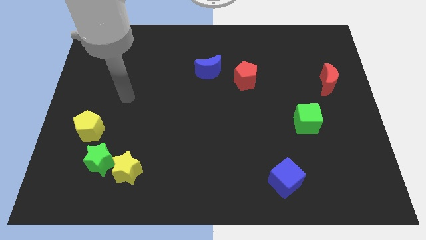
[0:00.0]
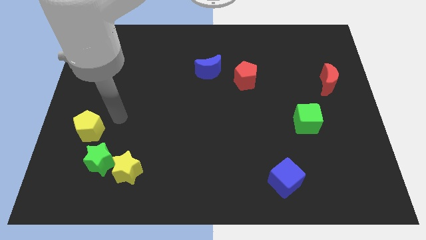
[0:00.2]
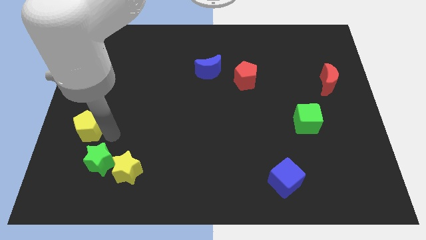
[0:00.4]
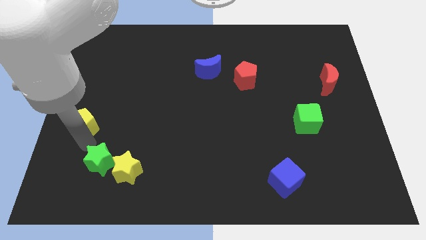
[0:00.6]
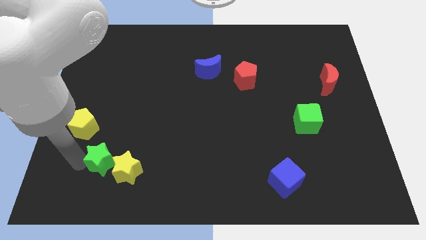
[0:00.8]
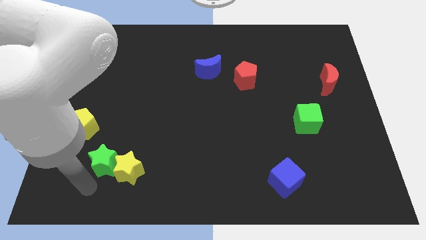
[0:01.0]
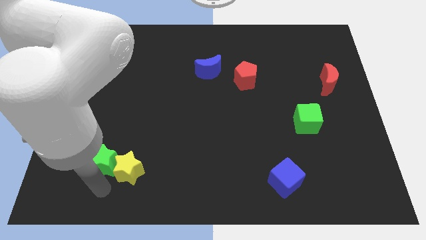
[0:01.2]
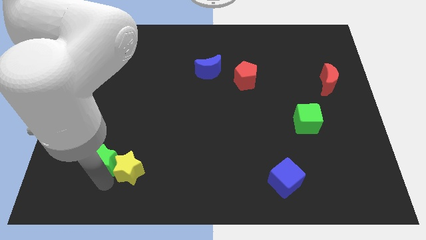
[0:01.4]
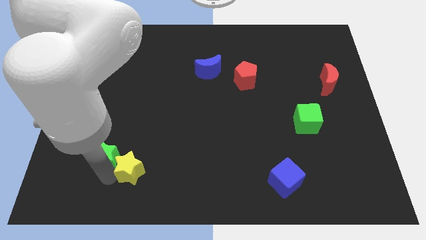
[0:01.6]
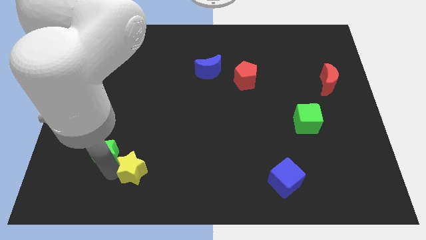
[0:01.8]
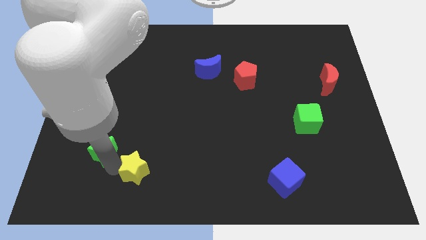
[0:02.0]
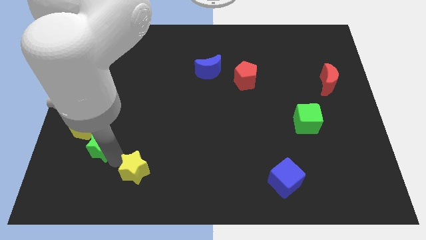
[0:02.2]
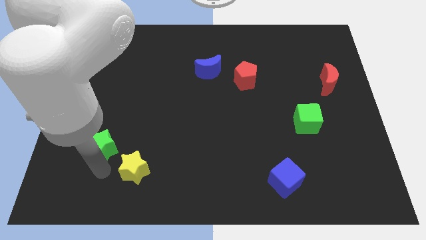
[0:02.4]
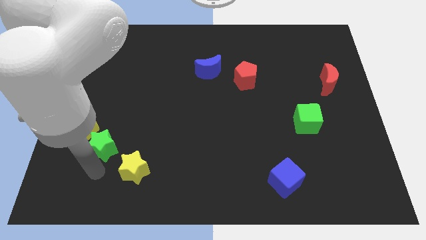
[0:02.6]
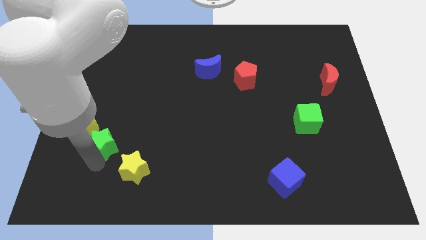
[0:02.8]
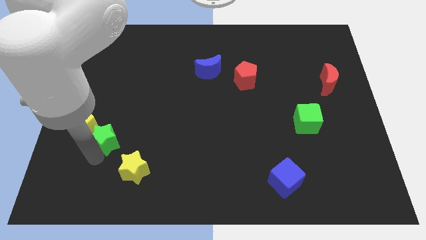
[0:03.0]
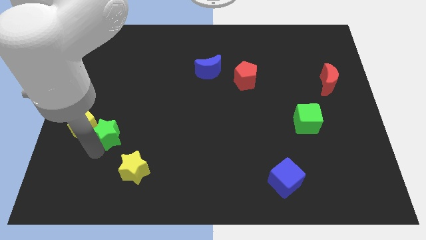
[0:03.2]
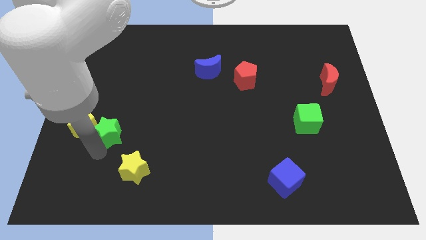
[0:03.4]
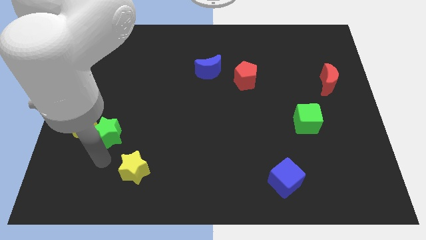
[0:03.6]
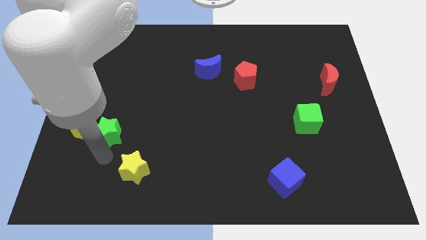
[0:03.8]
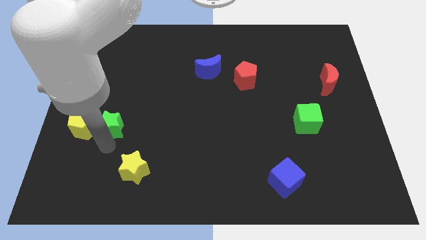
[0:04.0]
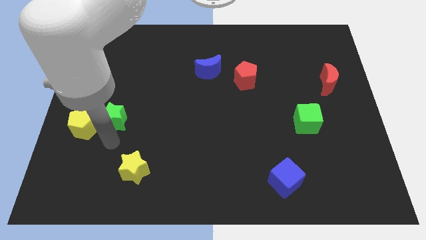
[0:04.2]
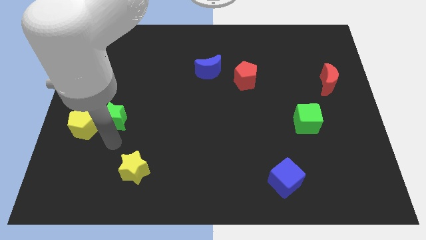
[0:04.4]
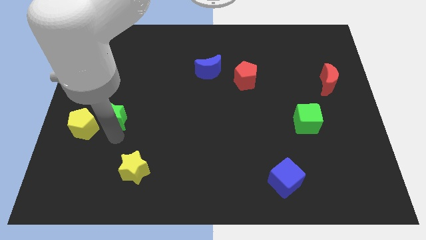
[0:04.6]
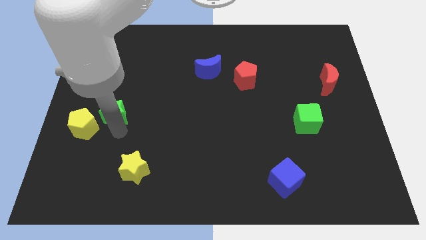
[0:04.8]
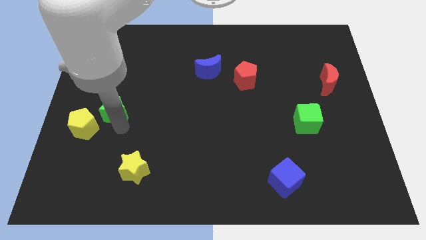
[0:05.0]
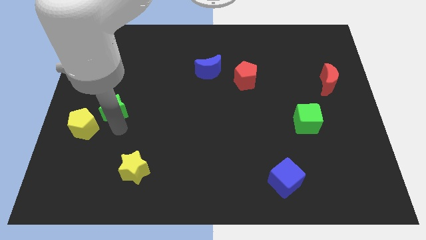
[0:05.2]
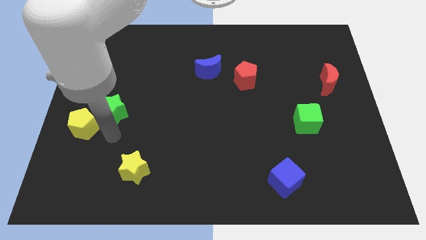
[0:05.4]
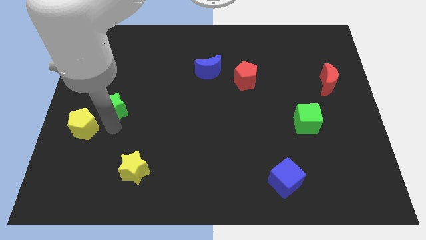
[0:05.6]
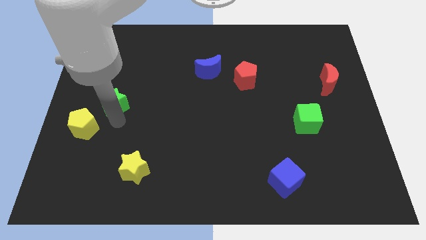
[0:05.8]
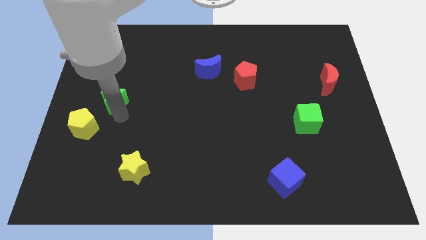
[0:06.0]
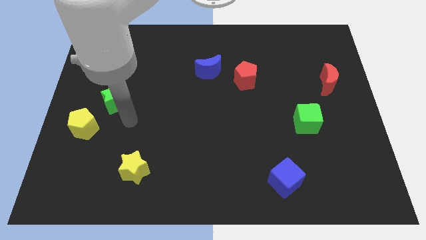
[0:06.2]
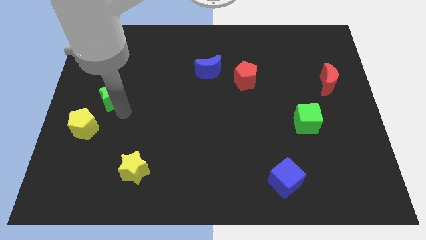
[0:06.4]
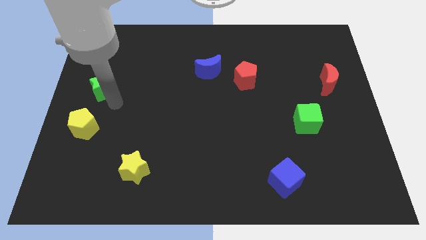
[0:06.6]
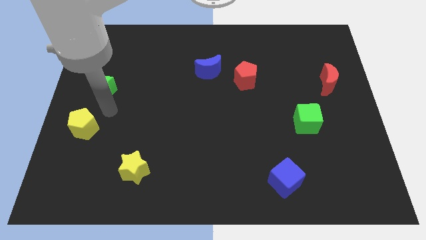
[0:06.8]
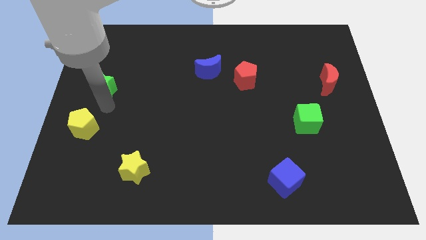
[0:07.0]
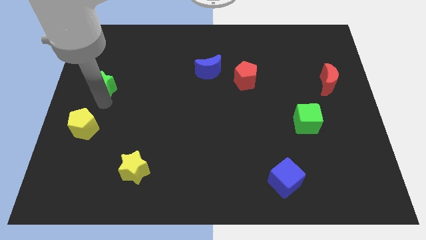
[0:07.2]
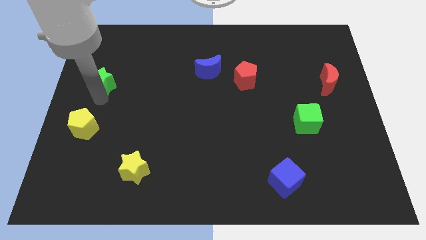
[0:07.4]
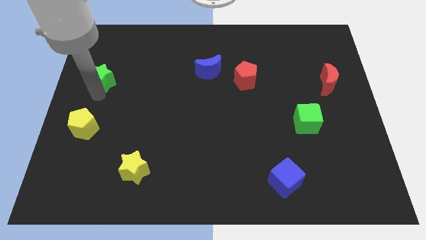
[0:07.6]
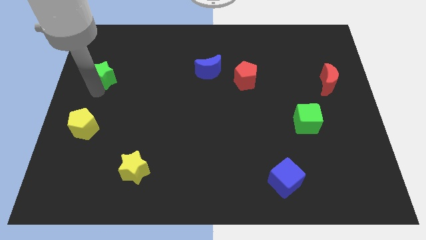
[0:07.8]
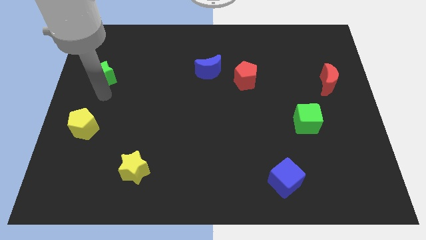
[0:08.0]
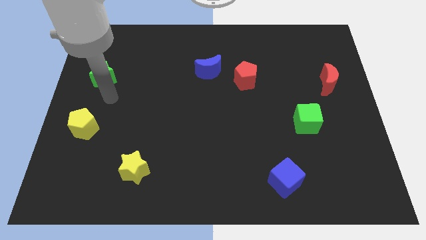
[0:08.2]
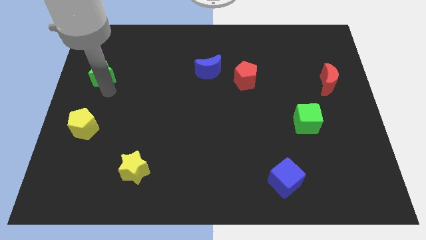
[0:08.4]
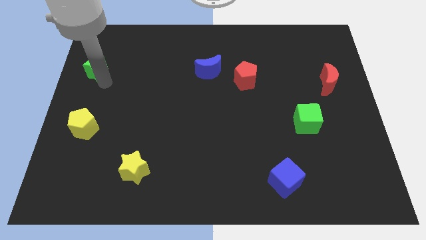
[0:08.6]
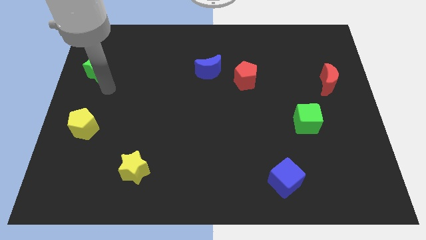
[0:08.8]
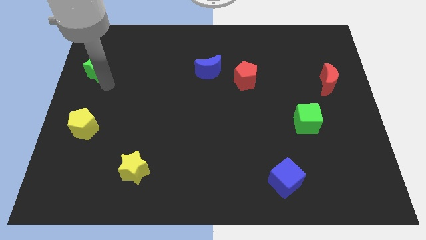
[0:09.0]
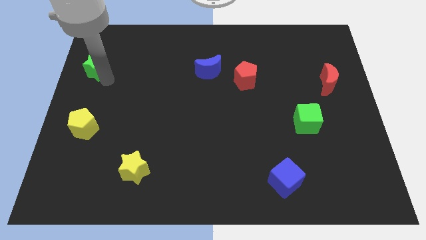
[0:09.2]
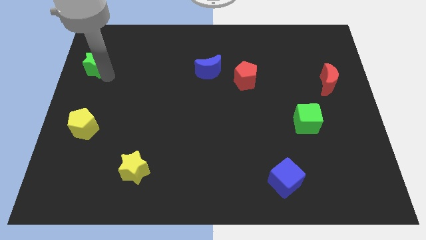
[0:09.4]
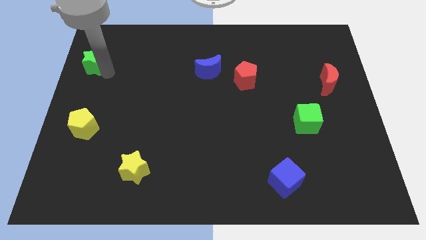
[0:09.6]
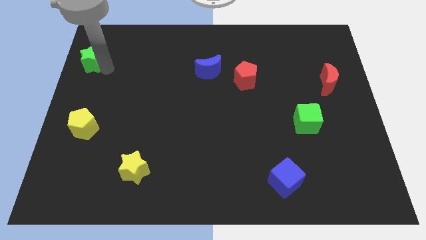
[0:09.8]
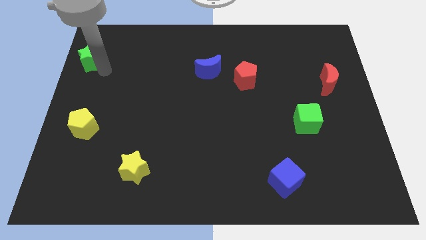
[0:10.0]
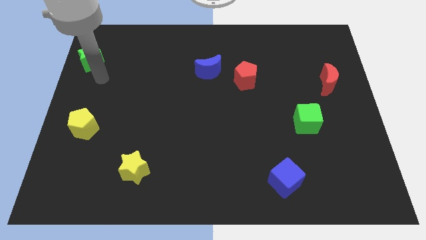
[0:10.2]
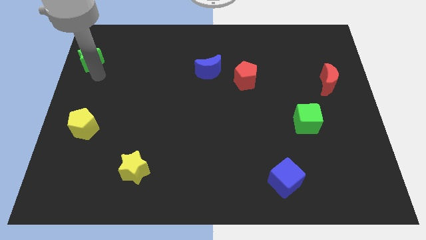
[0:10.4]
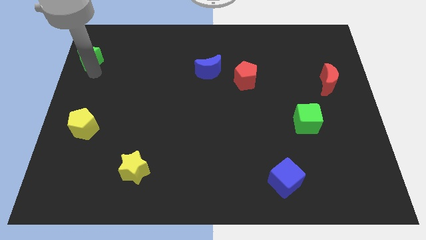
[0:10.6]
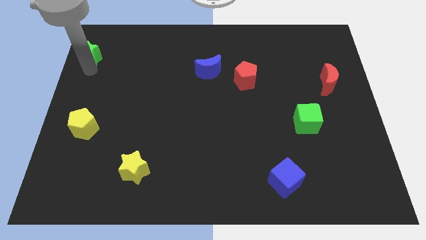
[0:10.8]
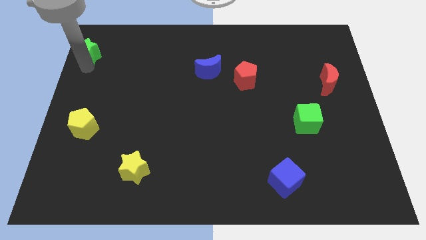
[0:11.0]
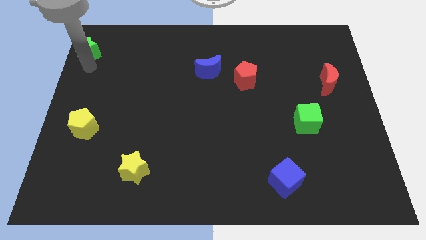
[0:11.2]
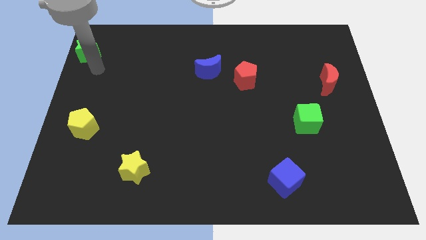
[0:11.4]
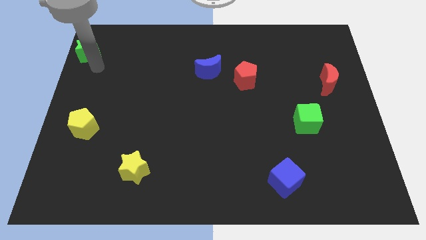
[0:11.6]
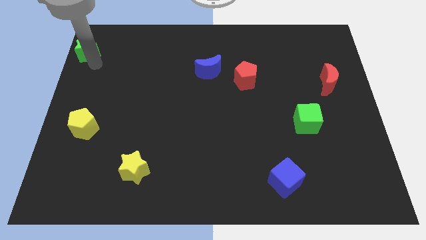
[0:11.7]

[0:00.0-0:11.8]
push the green star to the top left
